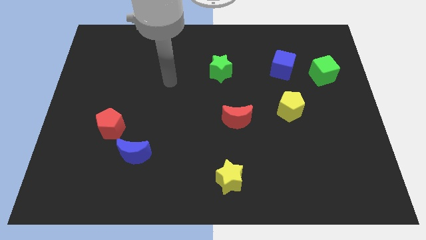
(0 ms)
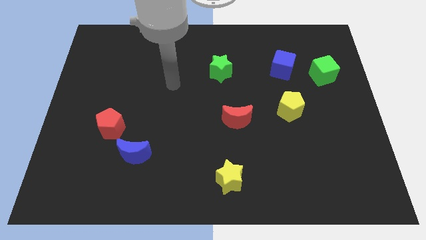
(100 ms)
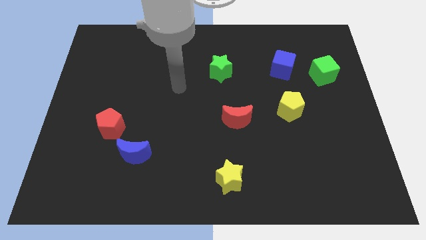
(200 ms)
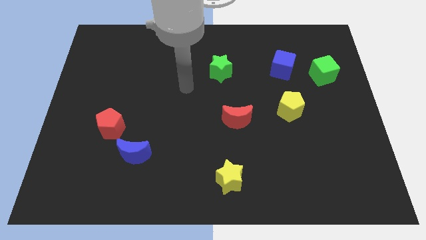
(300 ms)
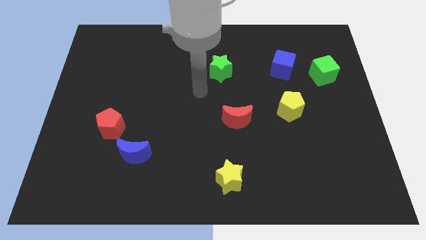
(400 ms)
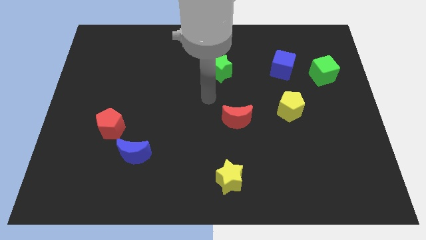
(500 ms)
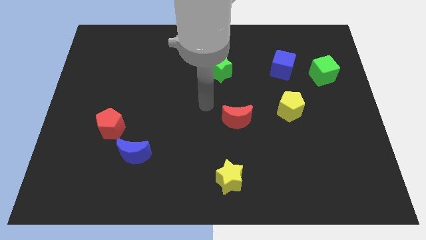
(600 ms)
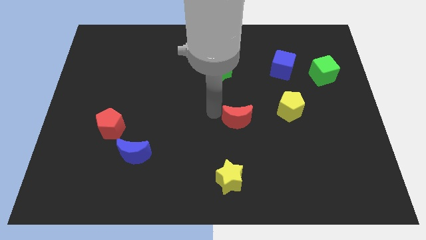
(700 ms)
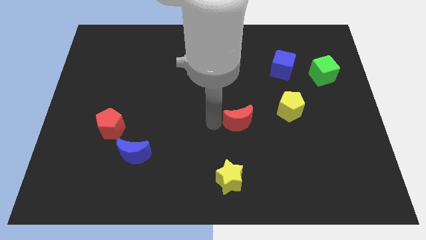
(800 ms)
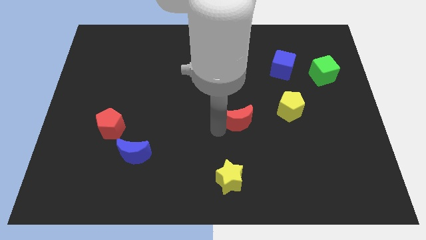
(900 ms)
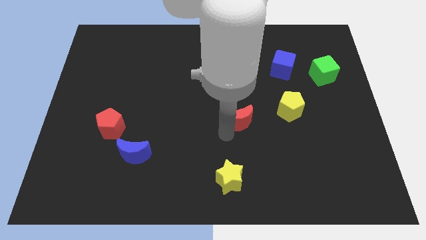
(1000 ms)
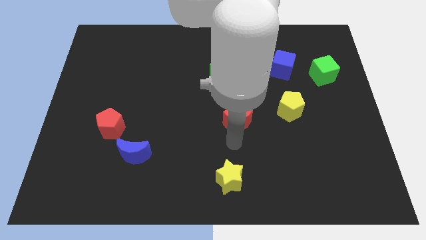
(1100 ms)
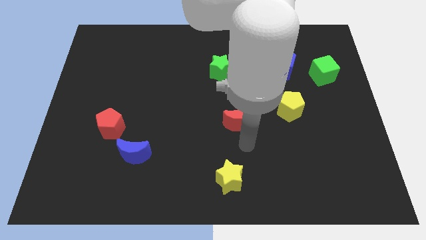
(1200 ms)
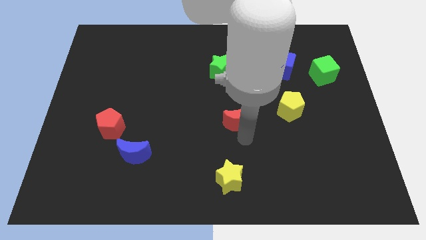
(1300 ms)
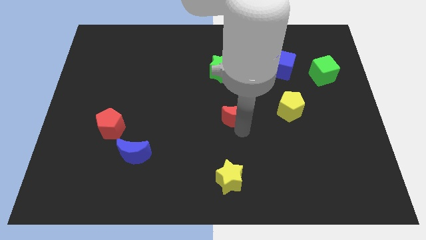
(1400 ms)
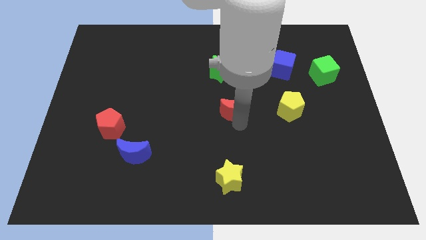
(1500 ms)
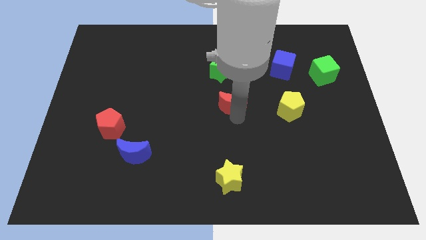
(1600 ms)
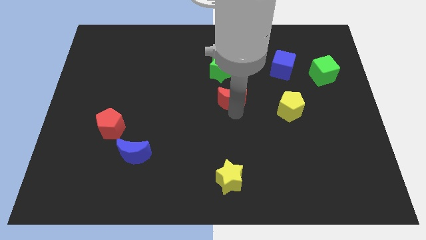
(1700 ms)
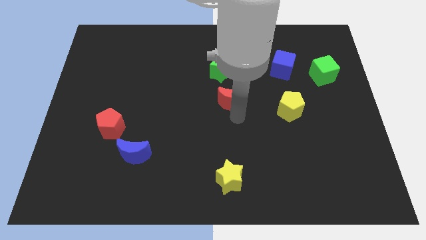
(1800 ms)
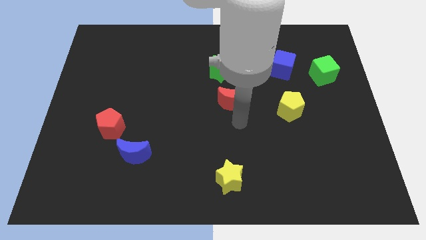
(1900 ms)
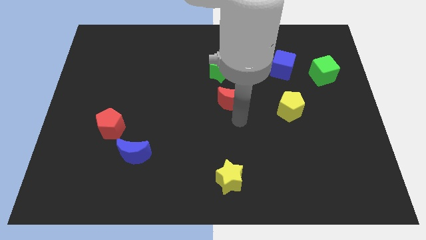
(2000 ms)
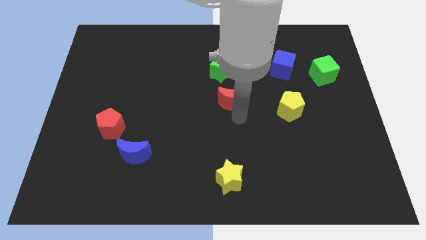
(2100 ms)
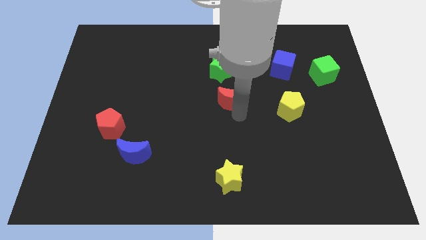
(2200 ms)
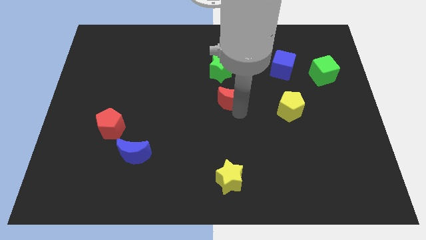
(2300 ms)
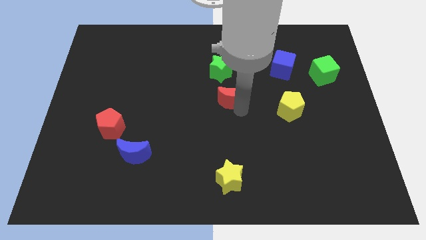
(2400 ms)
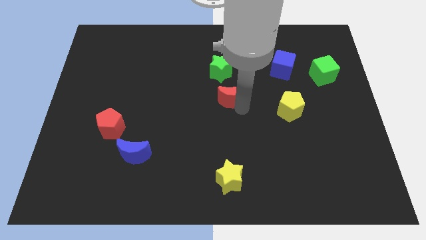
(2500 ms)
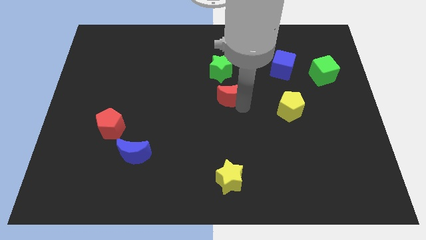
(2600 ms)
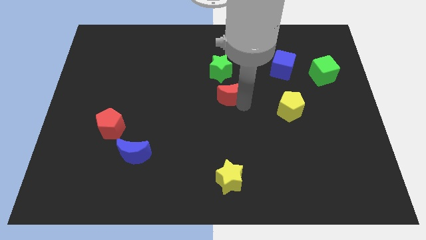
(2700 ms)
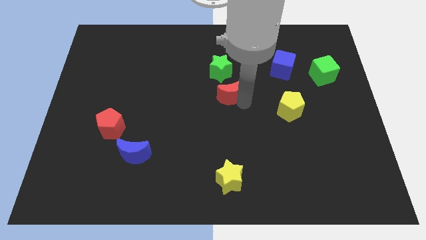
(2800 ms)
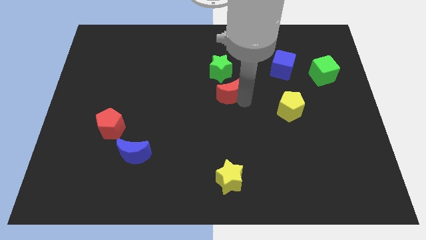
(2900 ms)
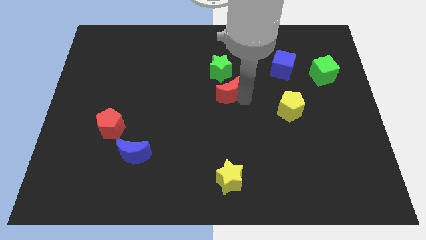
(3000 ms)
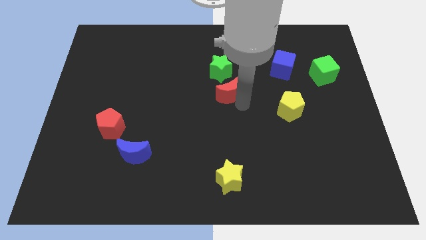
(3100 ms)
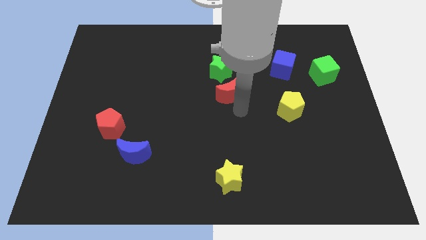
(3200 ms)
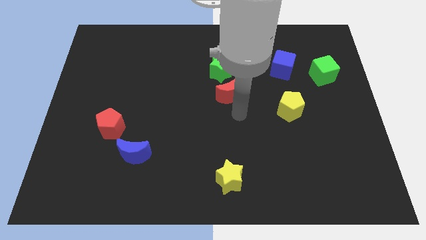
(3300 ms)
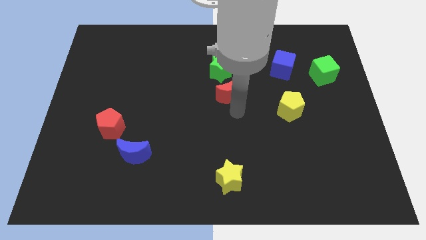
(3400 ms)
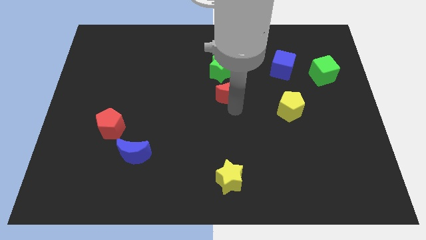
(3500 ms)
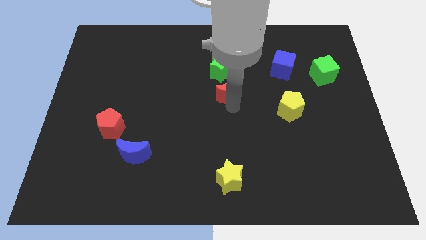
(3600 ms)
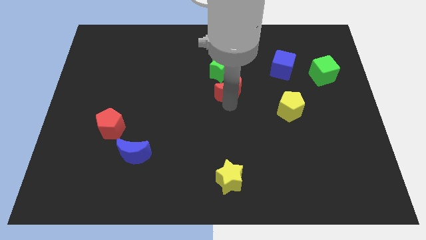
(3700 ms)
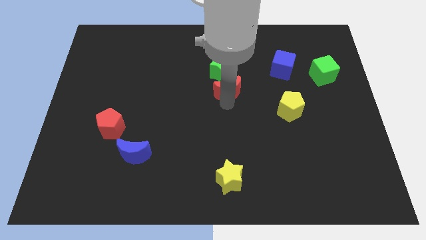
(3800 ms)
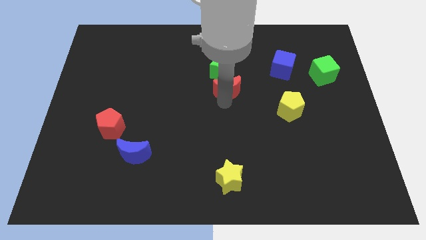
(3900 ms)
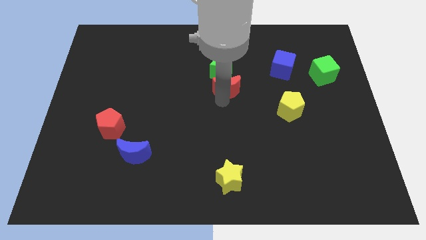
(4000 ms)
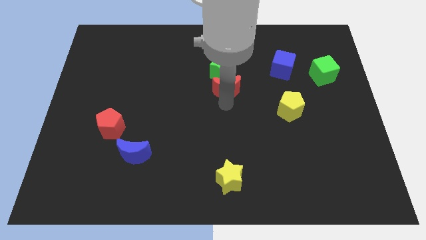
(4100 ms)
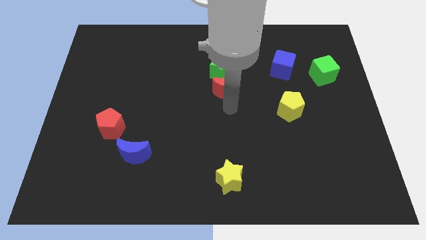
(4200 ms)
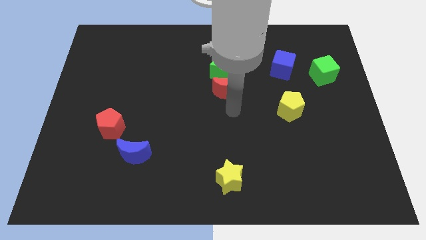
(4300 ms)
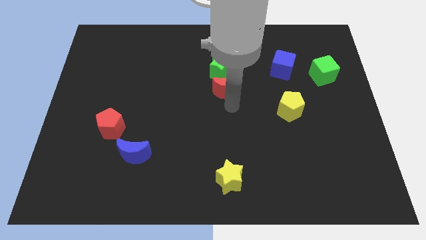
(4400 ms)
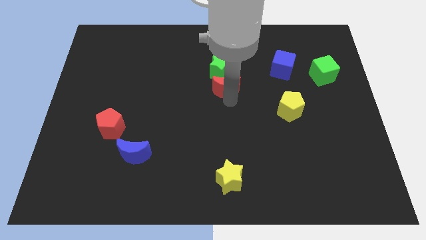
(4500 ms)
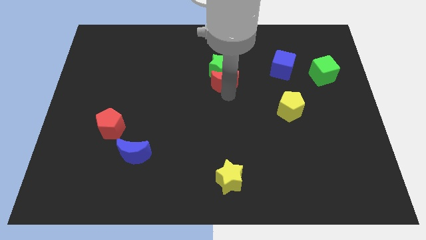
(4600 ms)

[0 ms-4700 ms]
put the red moon next to the green star

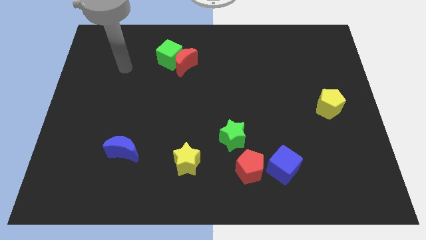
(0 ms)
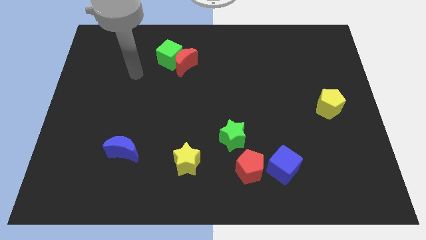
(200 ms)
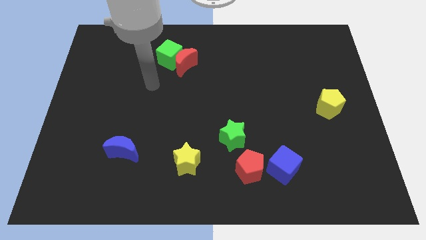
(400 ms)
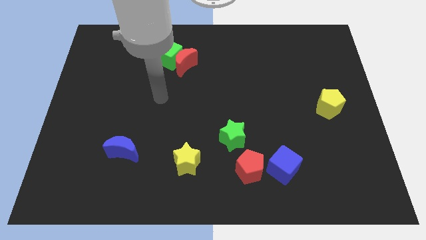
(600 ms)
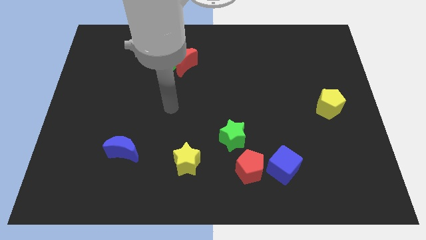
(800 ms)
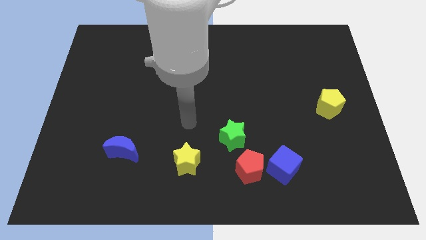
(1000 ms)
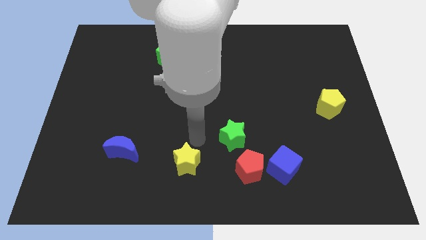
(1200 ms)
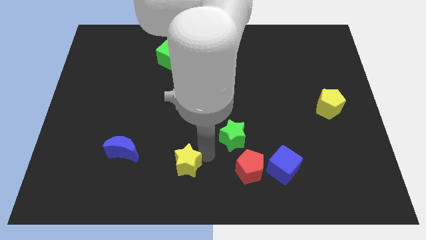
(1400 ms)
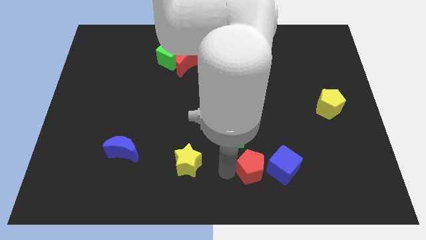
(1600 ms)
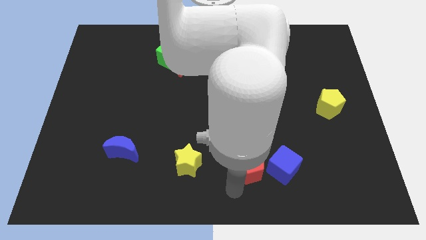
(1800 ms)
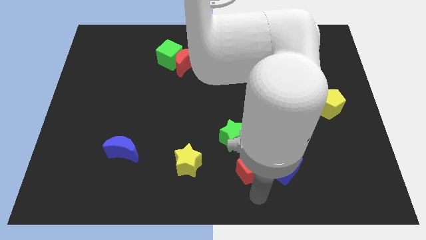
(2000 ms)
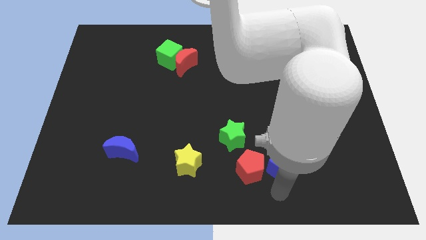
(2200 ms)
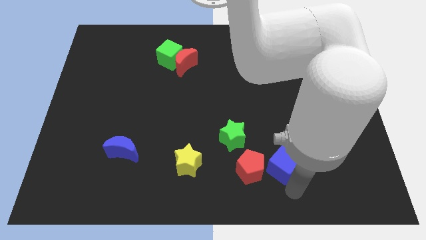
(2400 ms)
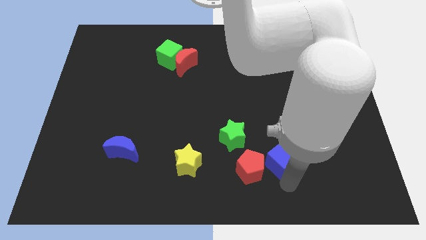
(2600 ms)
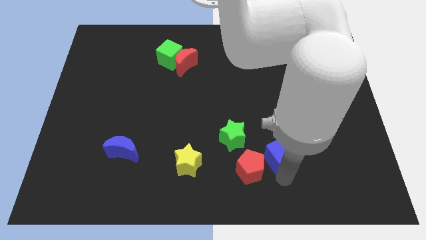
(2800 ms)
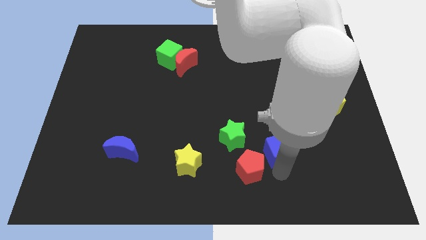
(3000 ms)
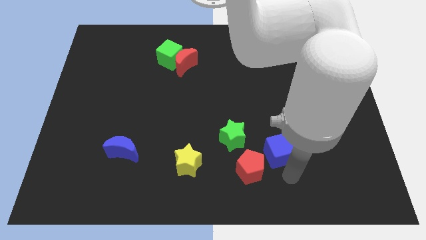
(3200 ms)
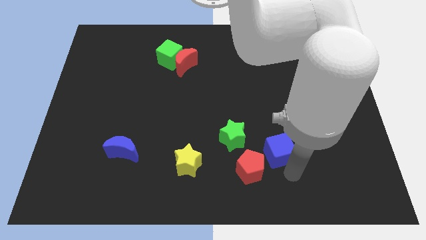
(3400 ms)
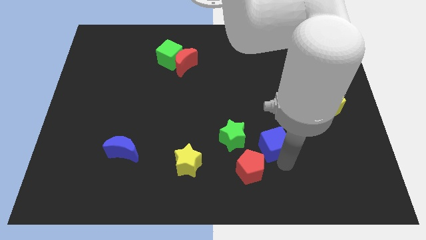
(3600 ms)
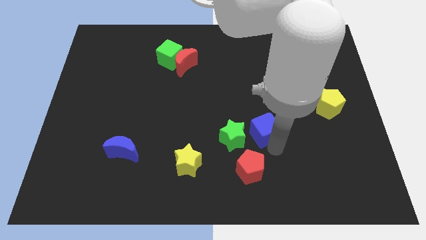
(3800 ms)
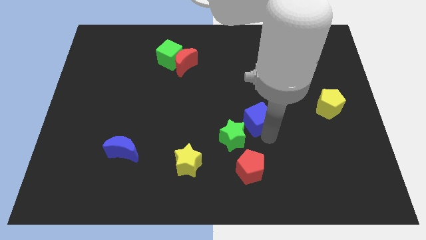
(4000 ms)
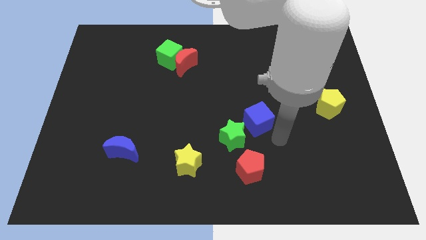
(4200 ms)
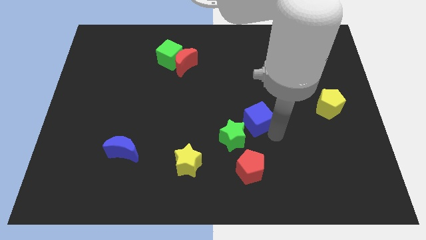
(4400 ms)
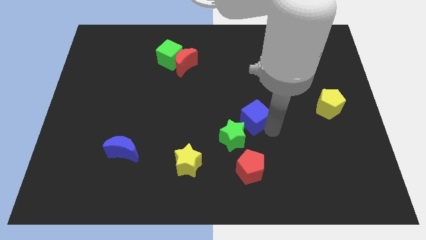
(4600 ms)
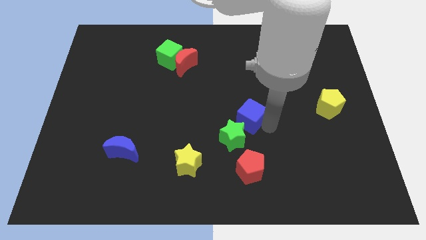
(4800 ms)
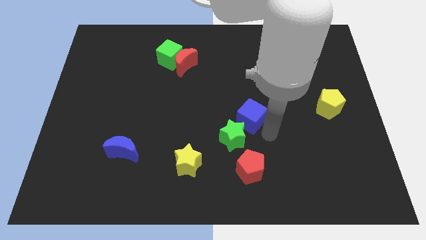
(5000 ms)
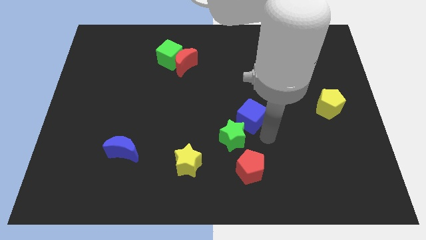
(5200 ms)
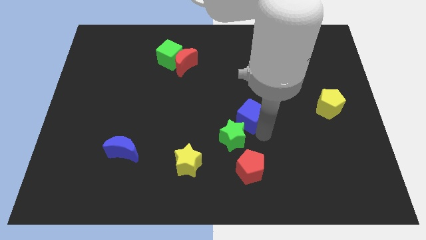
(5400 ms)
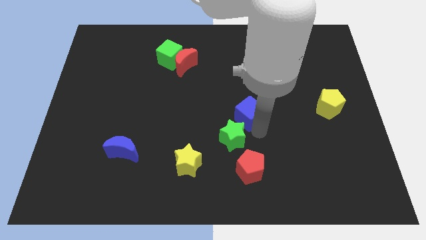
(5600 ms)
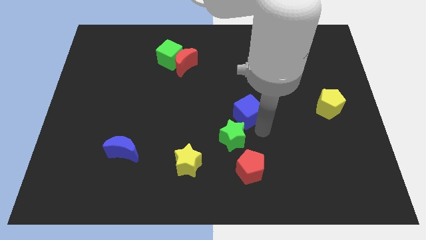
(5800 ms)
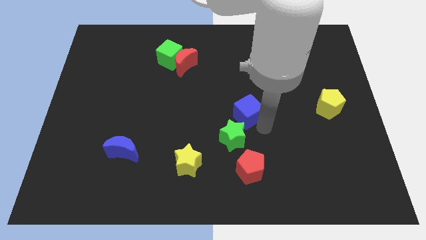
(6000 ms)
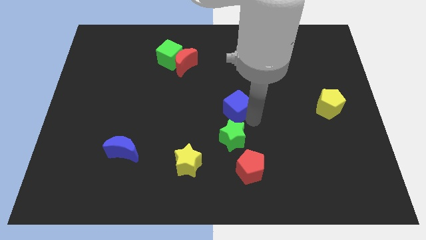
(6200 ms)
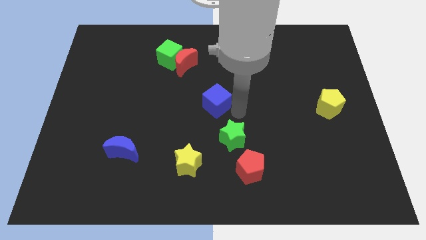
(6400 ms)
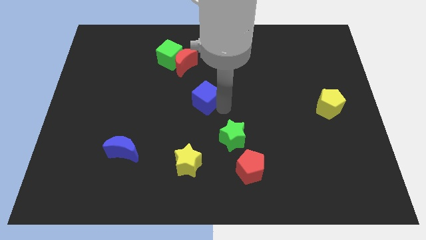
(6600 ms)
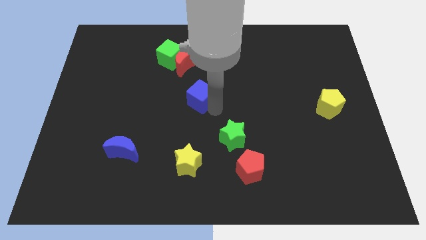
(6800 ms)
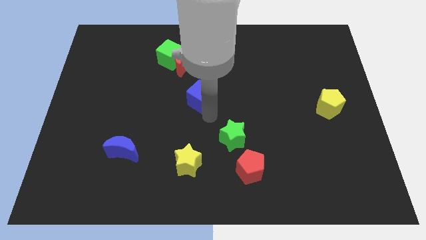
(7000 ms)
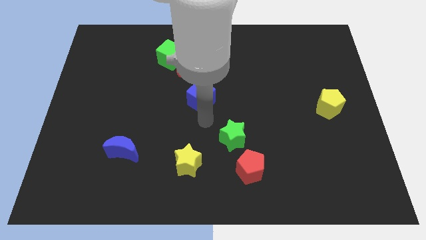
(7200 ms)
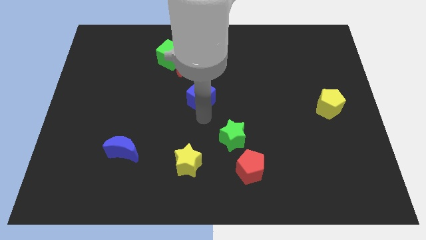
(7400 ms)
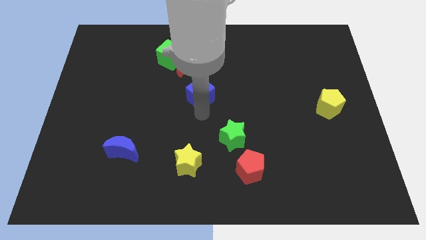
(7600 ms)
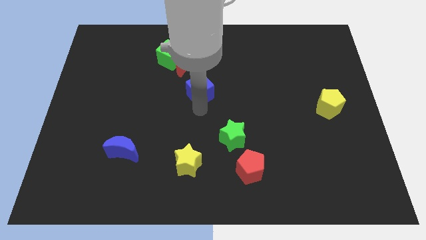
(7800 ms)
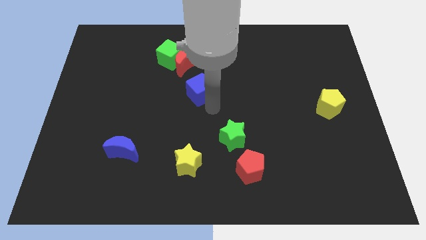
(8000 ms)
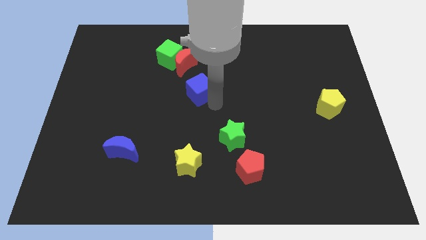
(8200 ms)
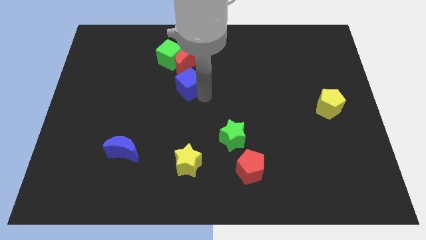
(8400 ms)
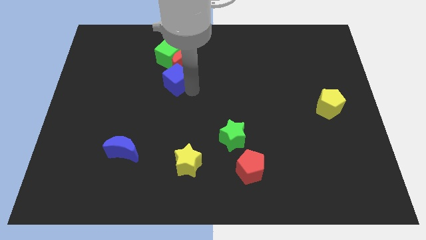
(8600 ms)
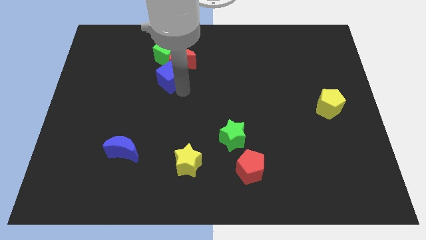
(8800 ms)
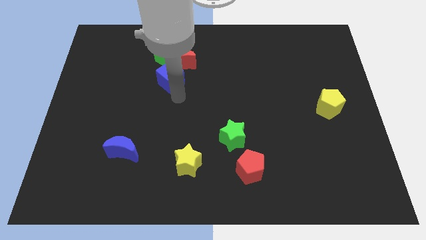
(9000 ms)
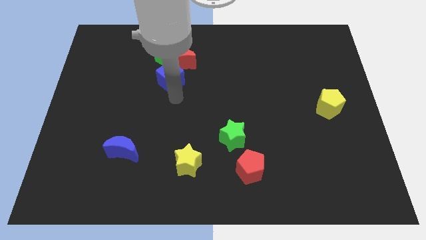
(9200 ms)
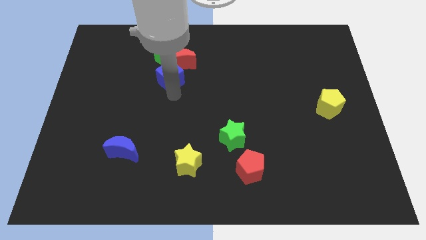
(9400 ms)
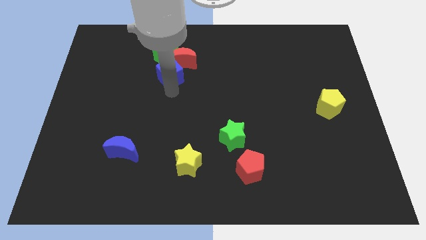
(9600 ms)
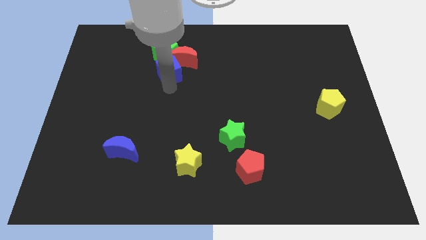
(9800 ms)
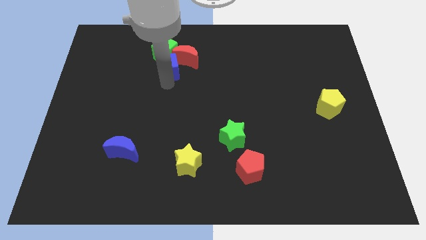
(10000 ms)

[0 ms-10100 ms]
move the blue cube towards the green cube
